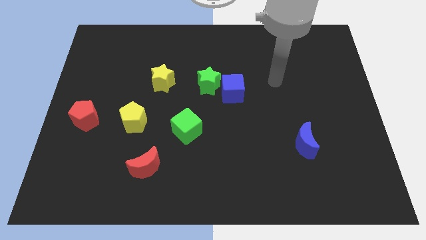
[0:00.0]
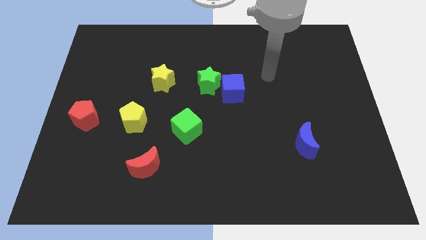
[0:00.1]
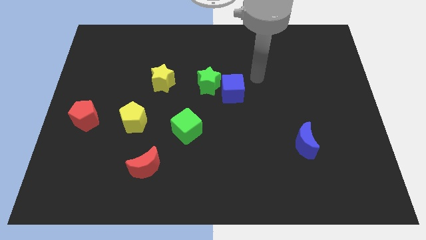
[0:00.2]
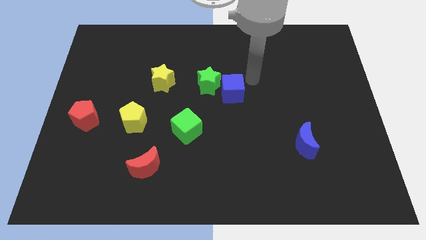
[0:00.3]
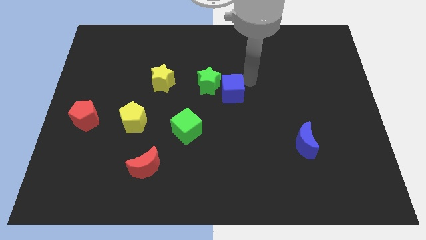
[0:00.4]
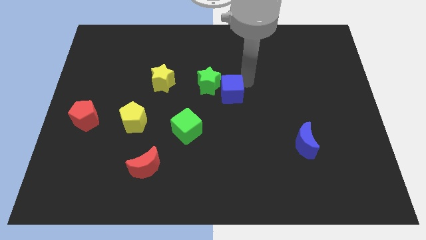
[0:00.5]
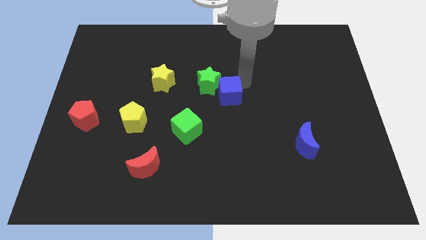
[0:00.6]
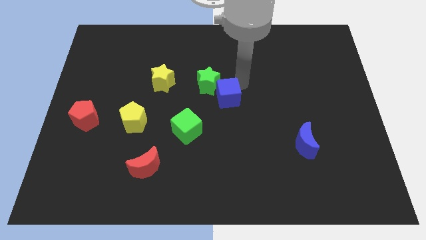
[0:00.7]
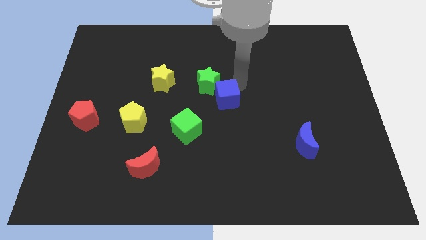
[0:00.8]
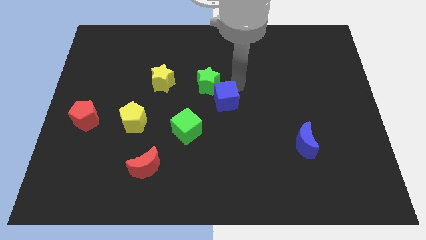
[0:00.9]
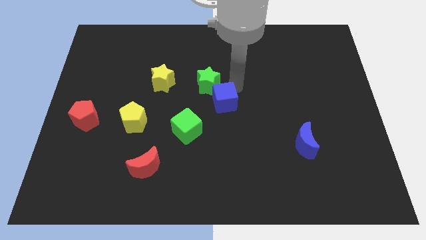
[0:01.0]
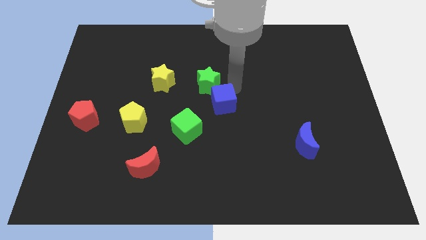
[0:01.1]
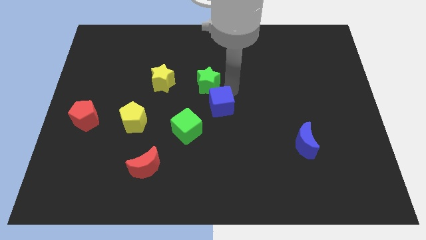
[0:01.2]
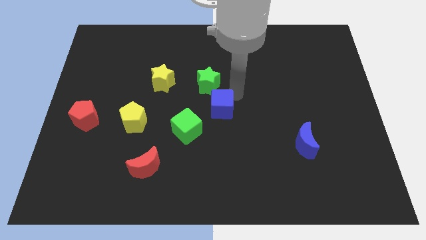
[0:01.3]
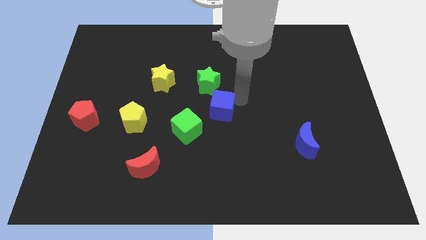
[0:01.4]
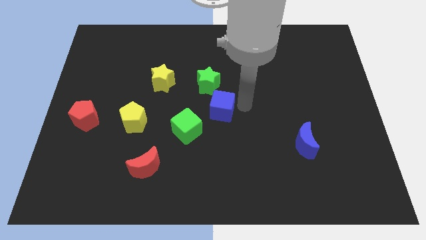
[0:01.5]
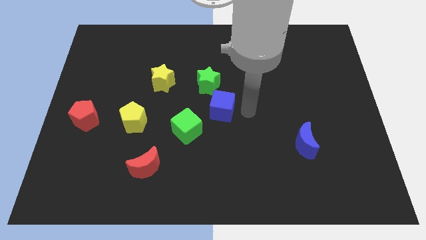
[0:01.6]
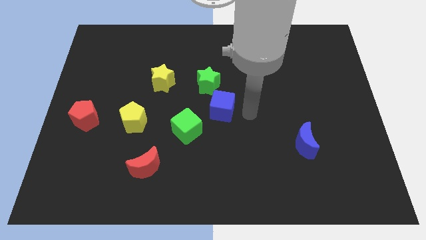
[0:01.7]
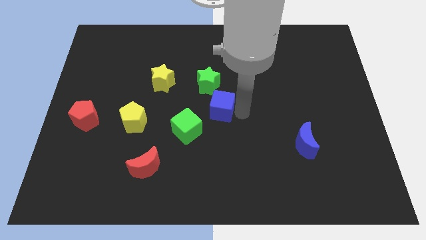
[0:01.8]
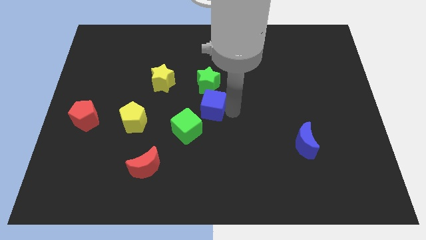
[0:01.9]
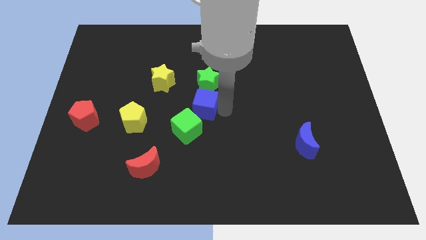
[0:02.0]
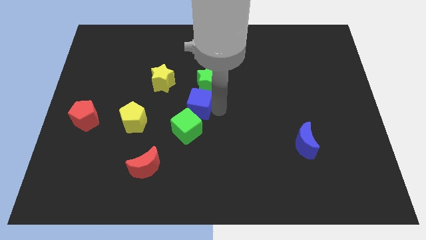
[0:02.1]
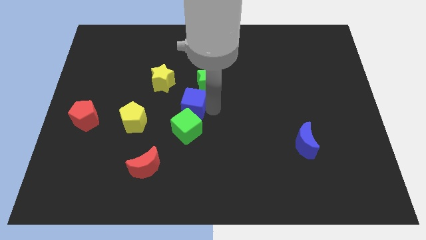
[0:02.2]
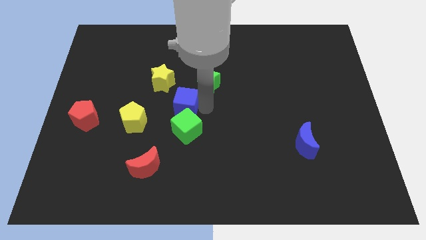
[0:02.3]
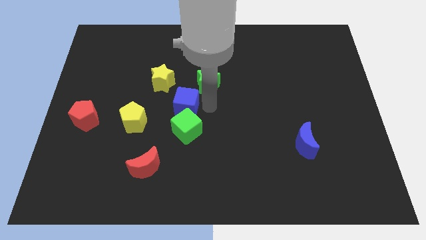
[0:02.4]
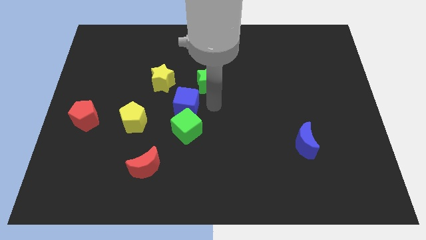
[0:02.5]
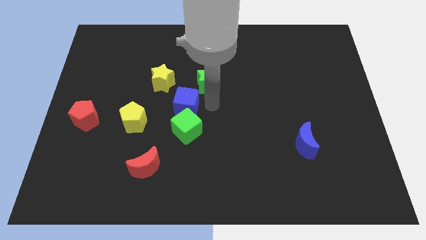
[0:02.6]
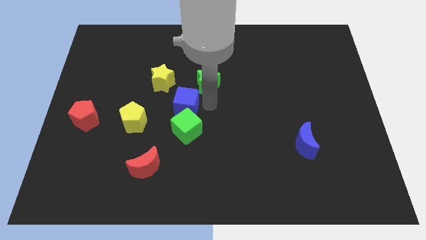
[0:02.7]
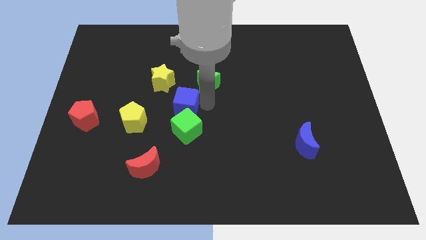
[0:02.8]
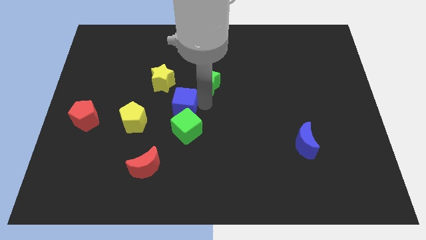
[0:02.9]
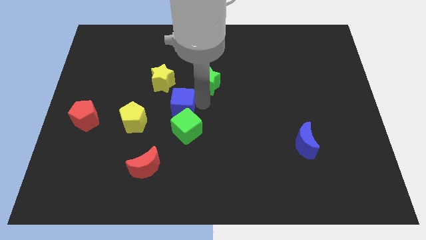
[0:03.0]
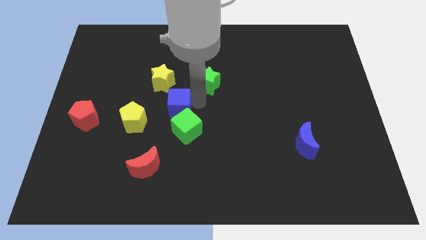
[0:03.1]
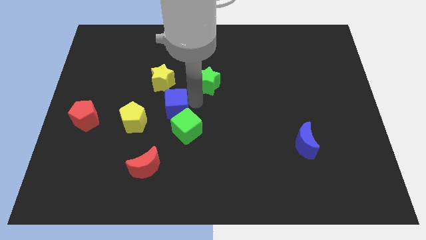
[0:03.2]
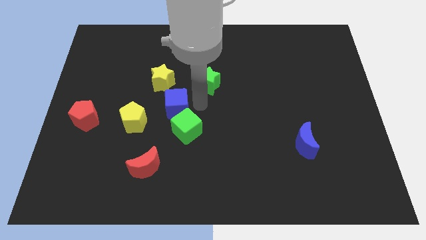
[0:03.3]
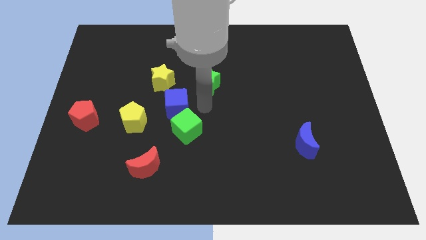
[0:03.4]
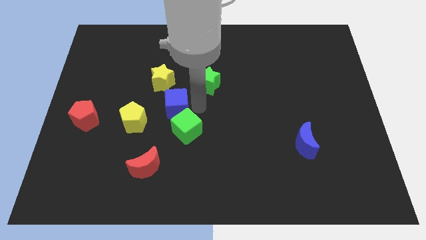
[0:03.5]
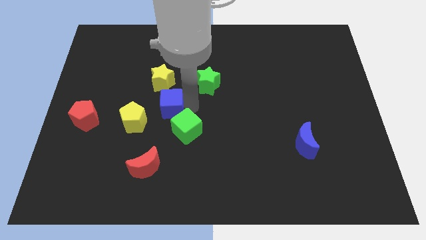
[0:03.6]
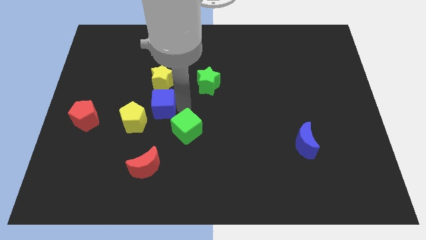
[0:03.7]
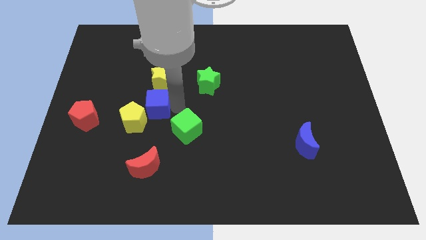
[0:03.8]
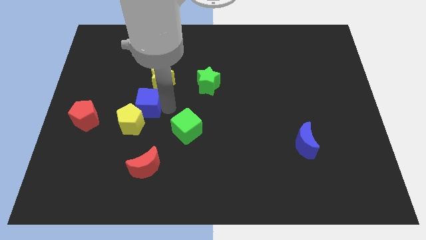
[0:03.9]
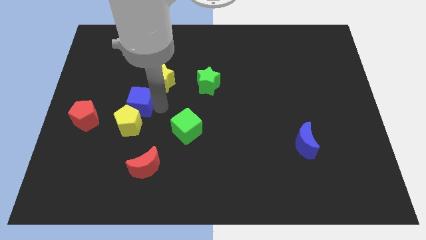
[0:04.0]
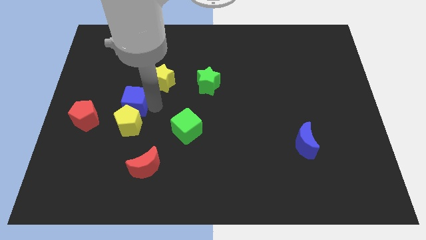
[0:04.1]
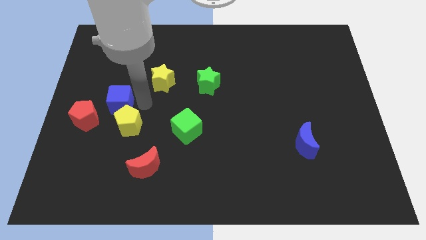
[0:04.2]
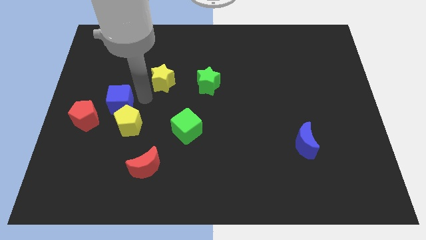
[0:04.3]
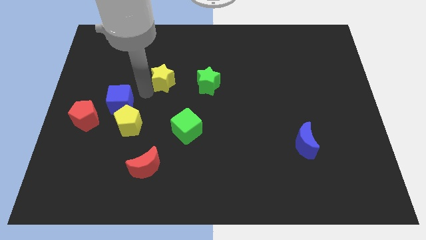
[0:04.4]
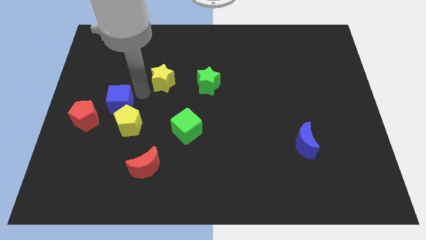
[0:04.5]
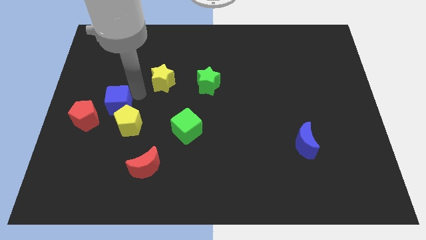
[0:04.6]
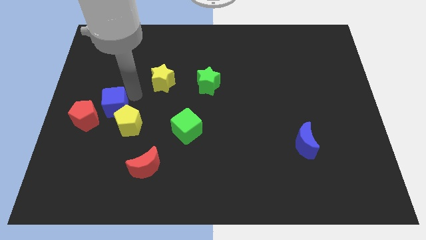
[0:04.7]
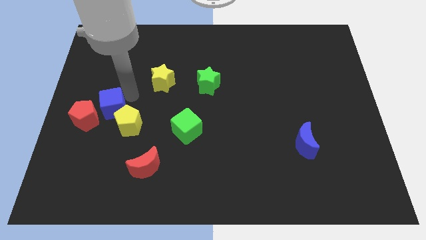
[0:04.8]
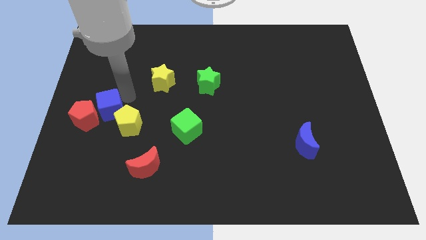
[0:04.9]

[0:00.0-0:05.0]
push the blue cube towards the red pentagon

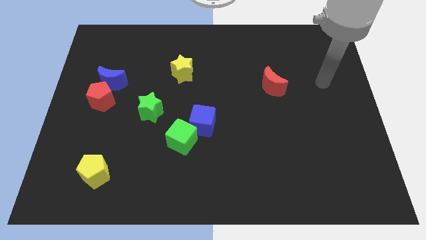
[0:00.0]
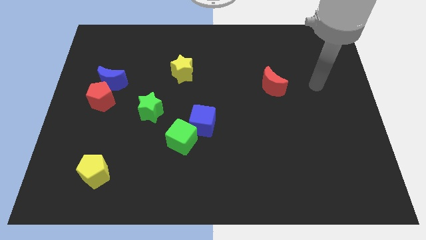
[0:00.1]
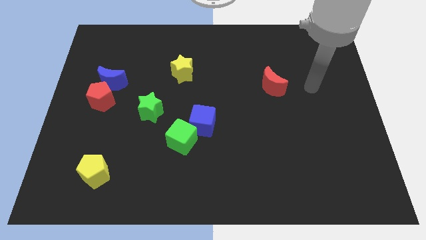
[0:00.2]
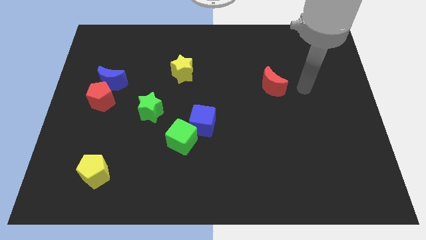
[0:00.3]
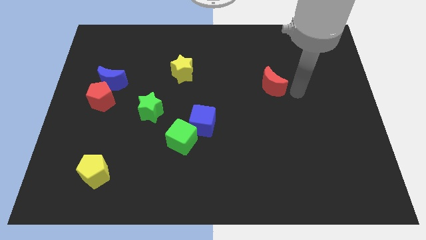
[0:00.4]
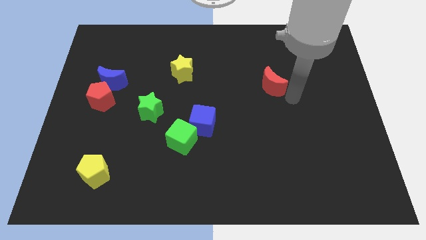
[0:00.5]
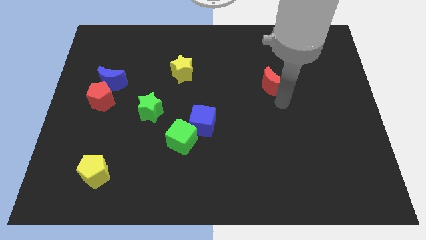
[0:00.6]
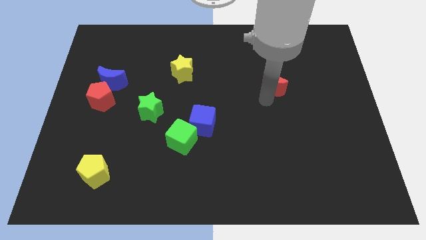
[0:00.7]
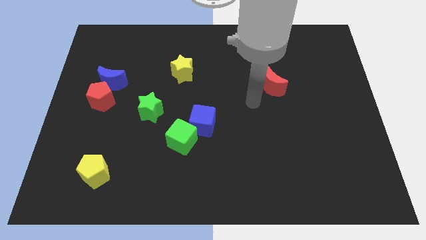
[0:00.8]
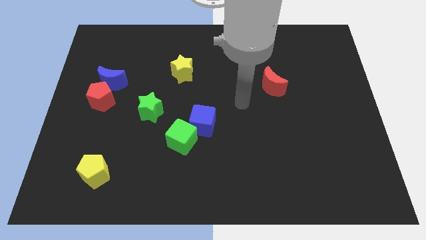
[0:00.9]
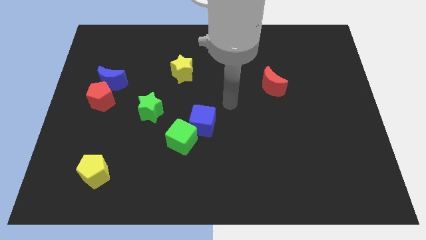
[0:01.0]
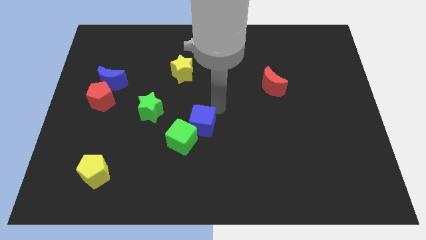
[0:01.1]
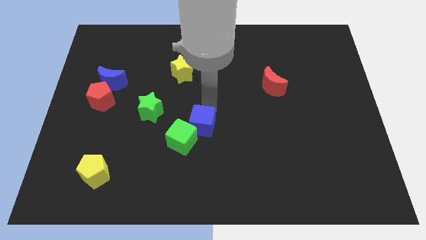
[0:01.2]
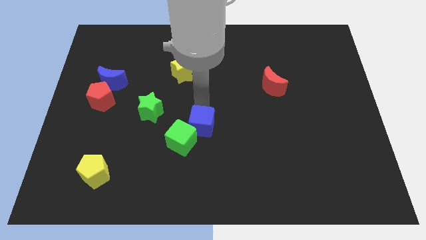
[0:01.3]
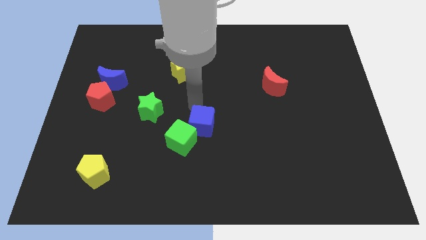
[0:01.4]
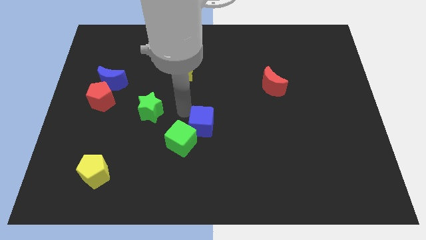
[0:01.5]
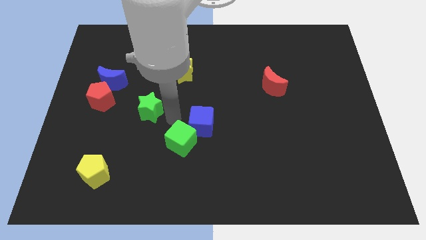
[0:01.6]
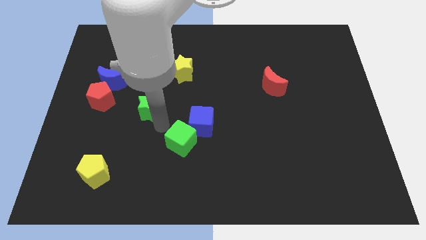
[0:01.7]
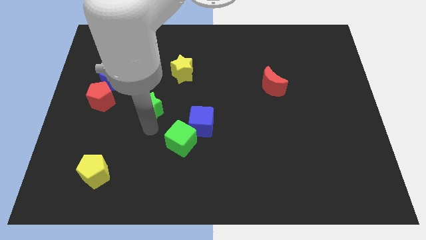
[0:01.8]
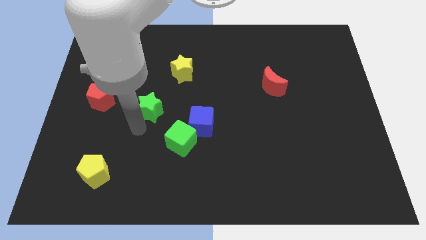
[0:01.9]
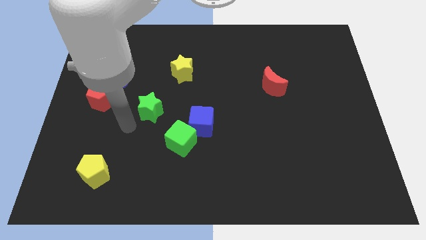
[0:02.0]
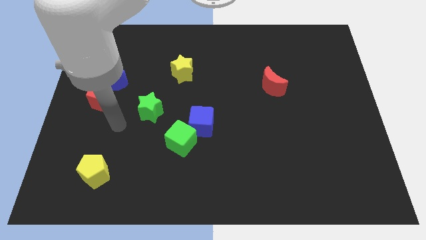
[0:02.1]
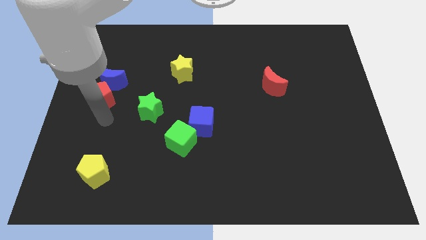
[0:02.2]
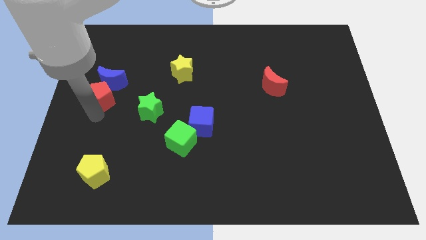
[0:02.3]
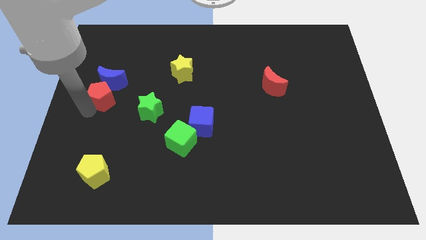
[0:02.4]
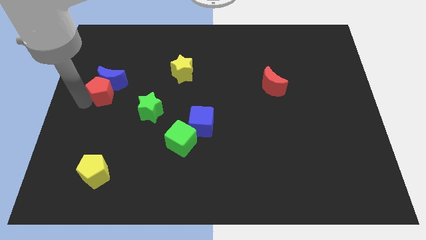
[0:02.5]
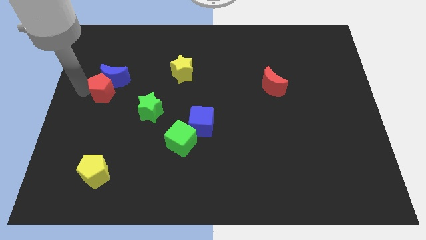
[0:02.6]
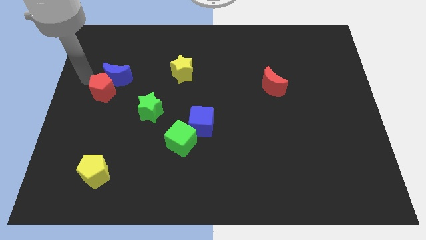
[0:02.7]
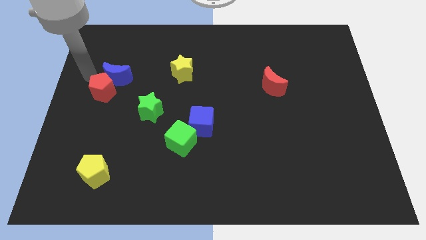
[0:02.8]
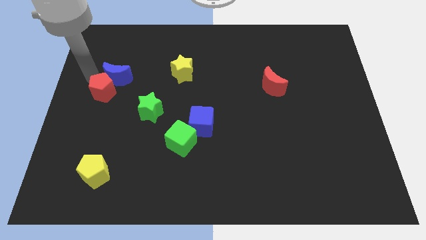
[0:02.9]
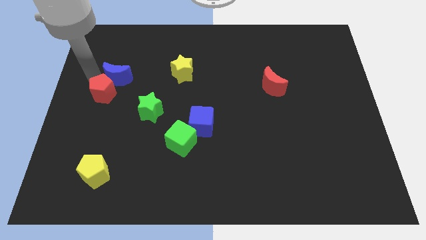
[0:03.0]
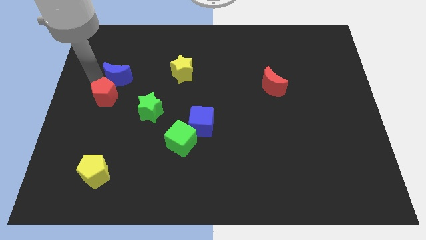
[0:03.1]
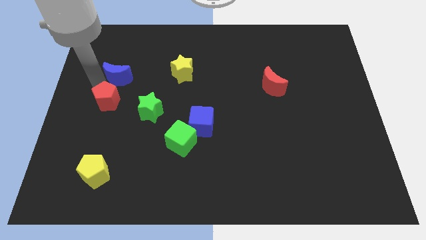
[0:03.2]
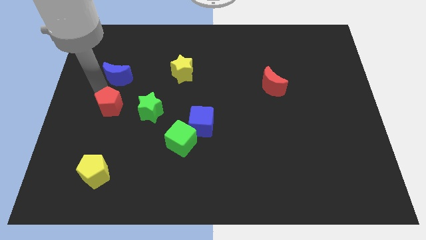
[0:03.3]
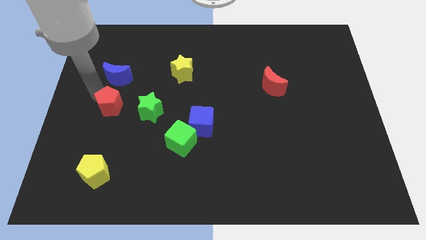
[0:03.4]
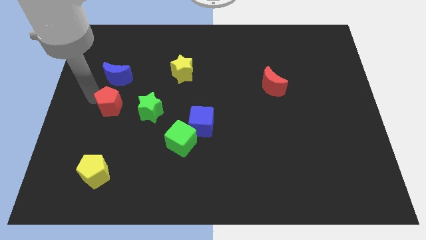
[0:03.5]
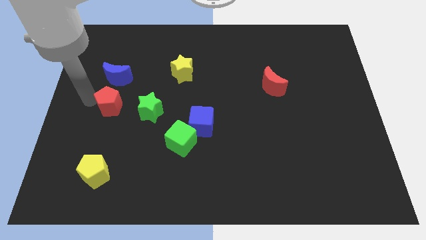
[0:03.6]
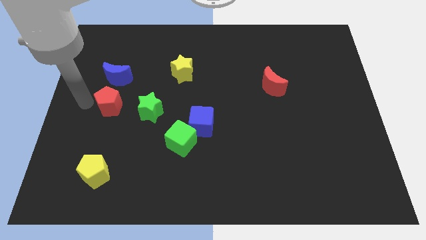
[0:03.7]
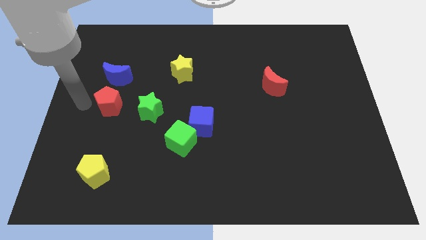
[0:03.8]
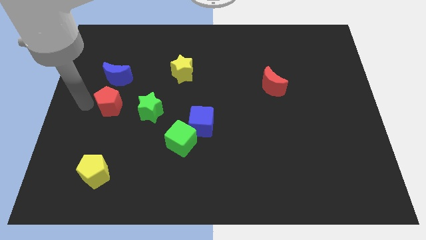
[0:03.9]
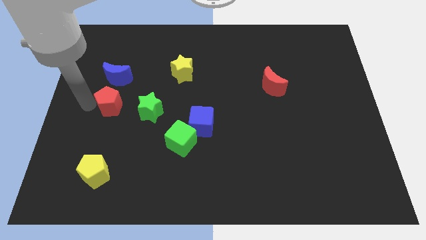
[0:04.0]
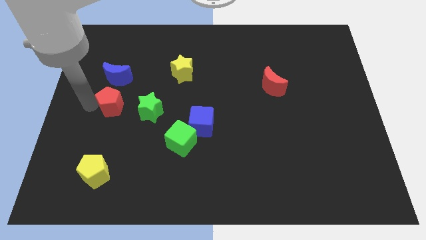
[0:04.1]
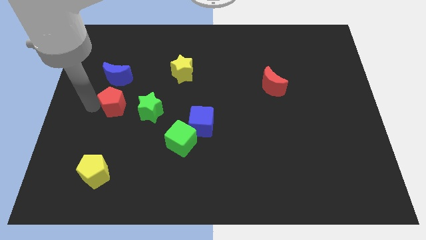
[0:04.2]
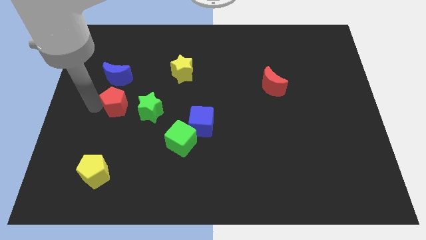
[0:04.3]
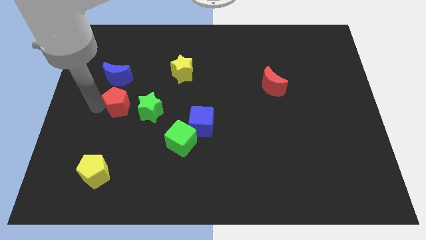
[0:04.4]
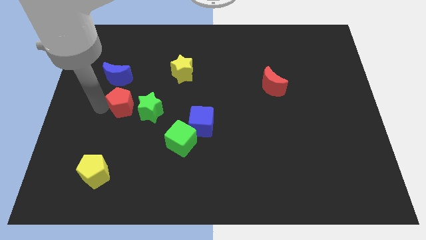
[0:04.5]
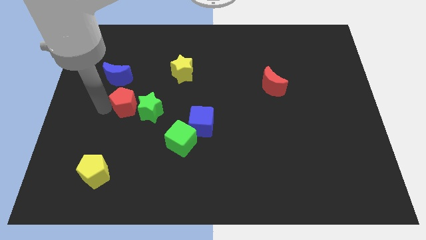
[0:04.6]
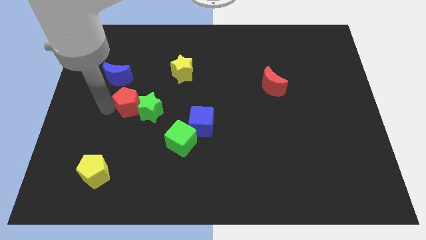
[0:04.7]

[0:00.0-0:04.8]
push the red pentagon next to the green star
